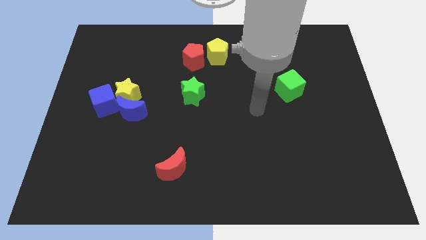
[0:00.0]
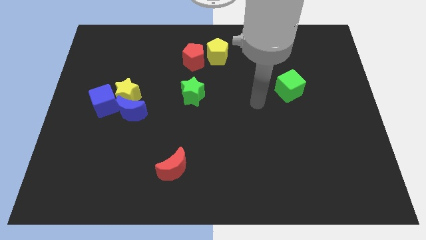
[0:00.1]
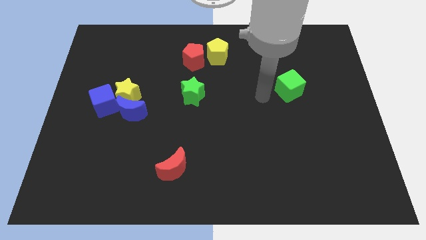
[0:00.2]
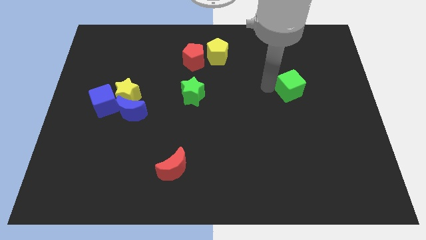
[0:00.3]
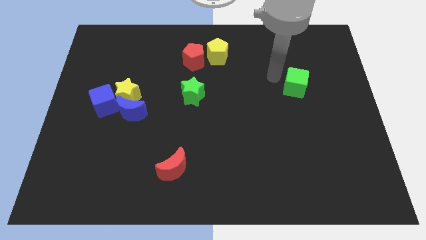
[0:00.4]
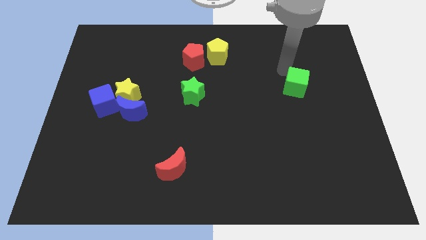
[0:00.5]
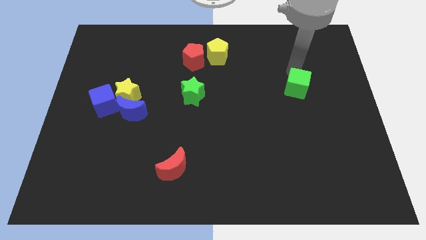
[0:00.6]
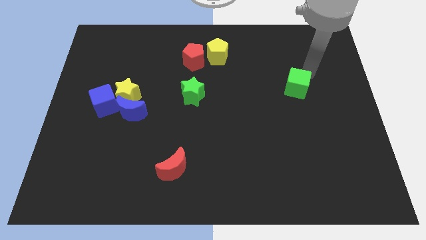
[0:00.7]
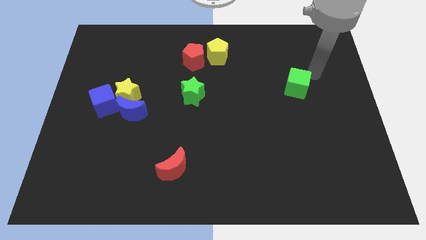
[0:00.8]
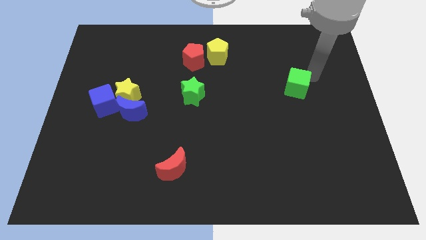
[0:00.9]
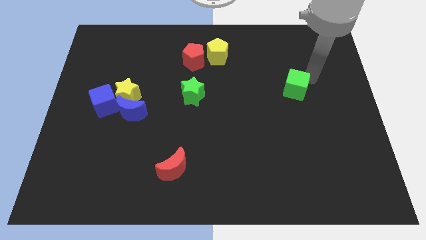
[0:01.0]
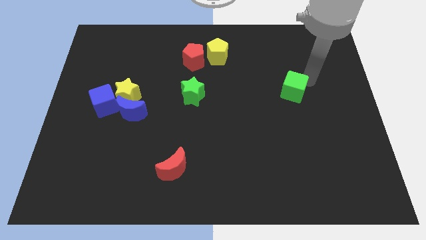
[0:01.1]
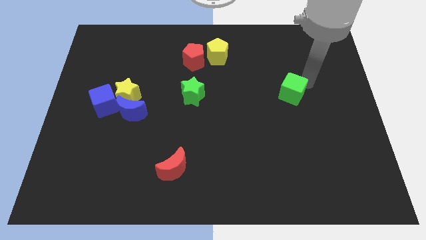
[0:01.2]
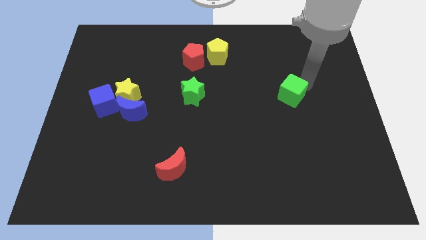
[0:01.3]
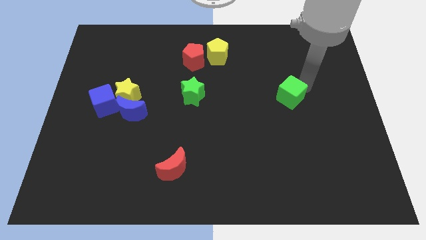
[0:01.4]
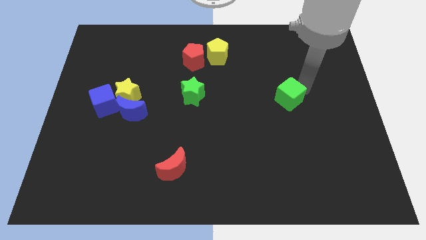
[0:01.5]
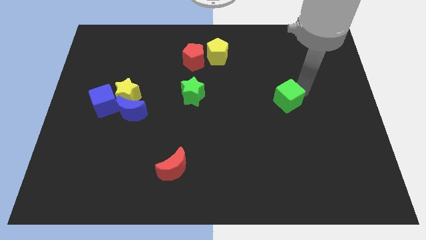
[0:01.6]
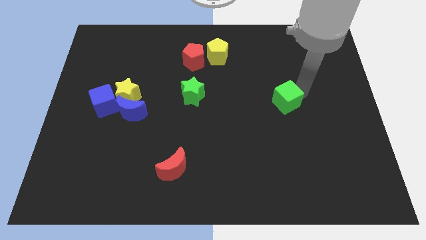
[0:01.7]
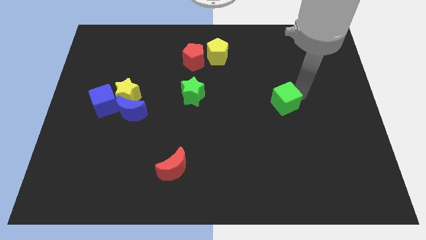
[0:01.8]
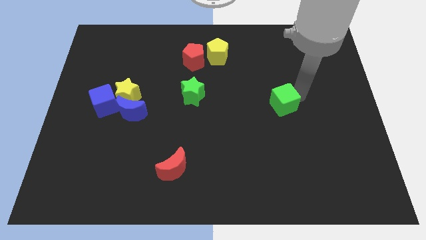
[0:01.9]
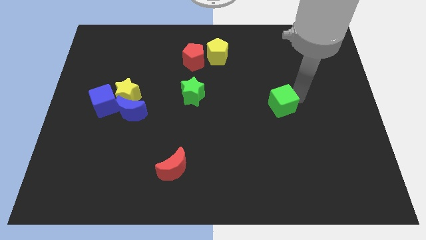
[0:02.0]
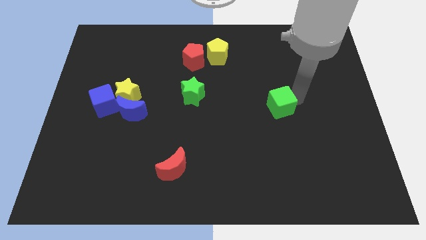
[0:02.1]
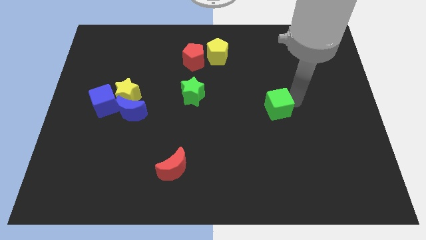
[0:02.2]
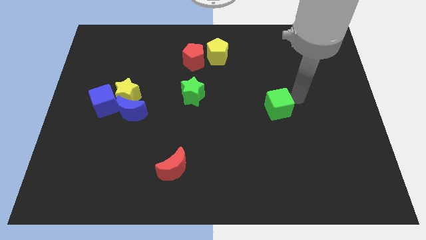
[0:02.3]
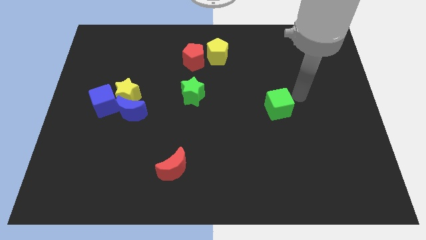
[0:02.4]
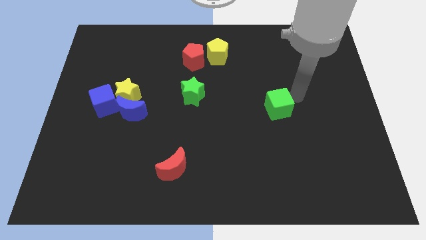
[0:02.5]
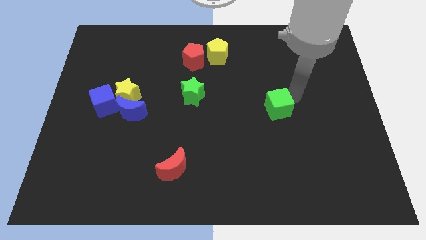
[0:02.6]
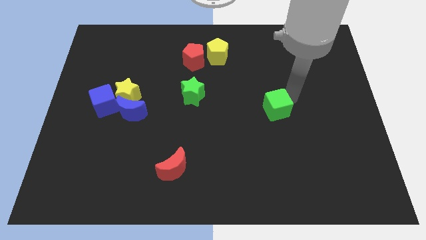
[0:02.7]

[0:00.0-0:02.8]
slightly push the green cube downwards and left diagonally

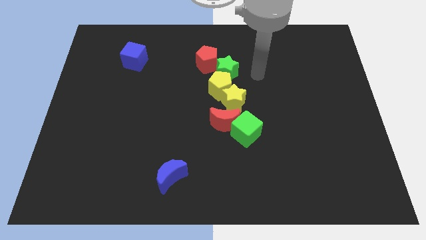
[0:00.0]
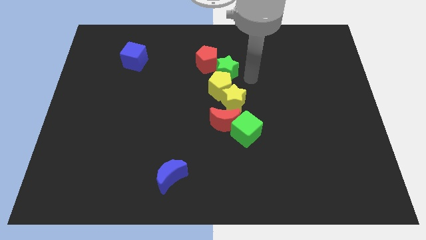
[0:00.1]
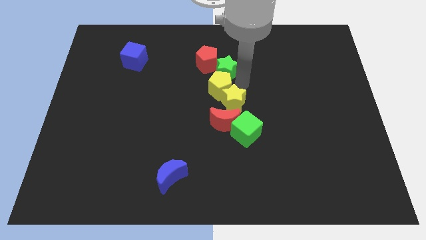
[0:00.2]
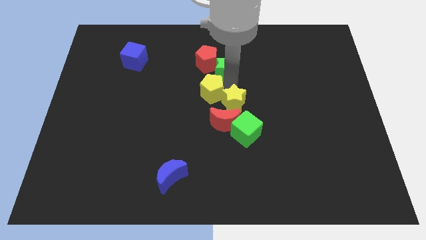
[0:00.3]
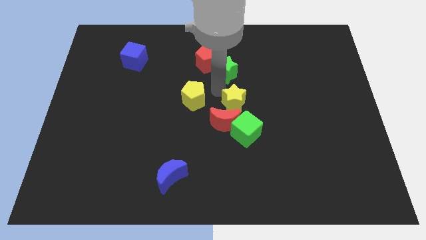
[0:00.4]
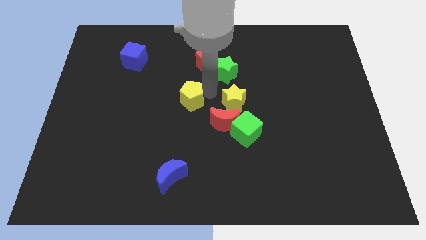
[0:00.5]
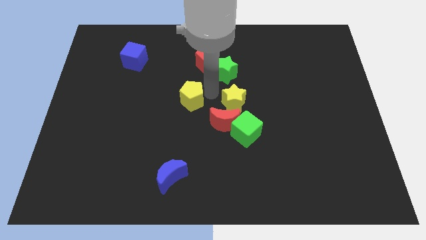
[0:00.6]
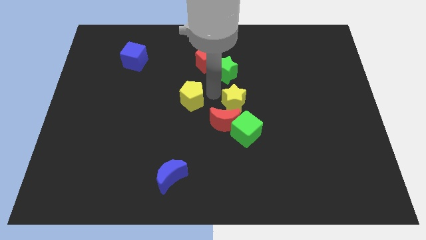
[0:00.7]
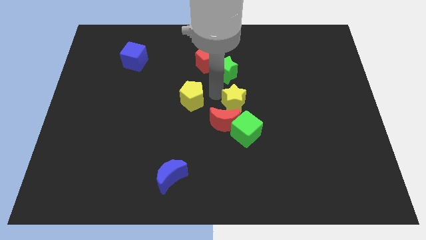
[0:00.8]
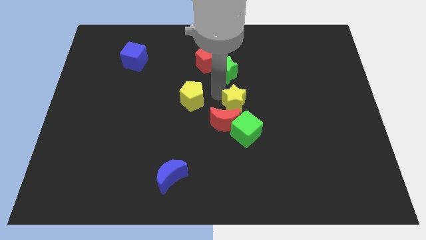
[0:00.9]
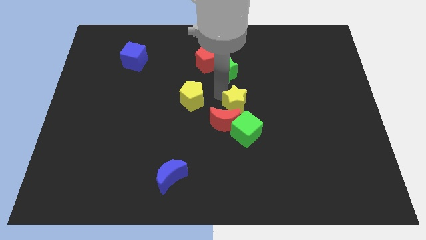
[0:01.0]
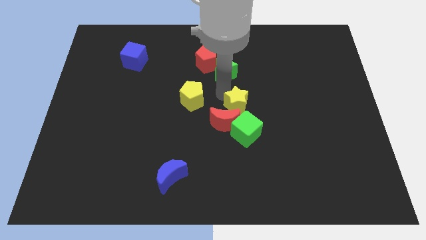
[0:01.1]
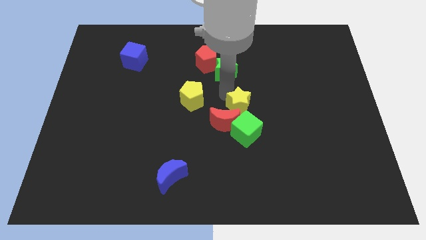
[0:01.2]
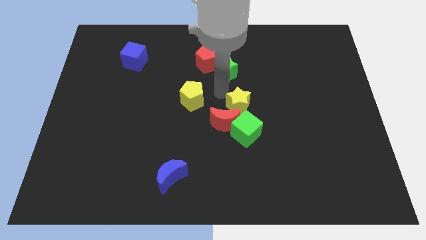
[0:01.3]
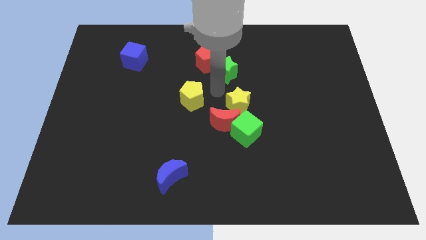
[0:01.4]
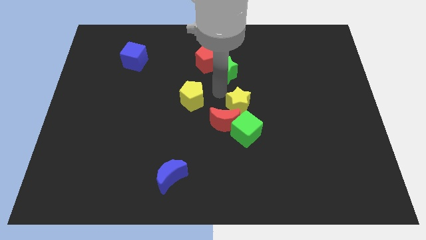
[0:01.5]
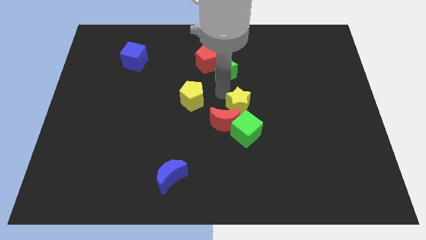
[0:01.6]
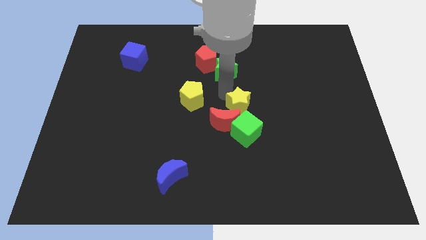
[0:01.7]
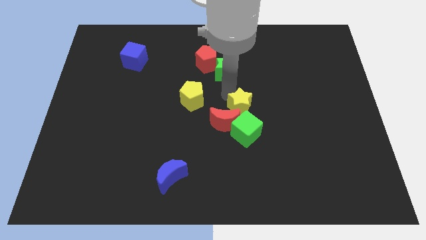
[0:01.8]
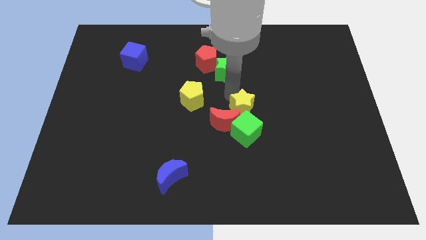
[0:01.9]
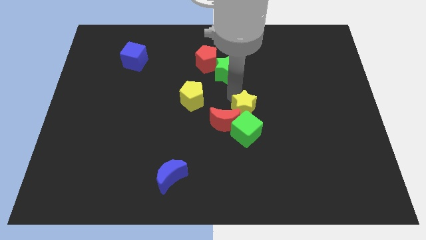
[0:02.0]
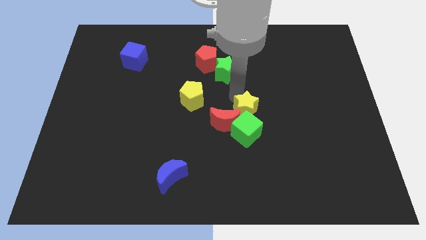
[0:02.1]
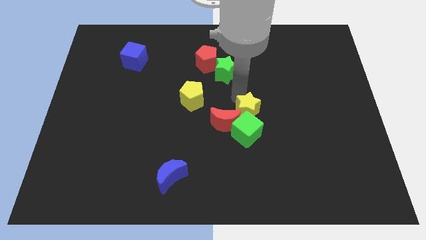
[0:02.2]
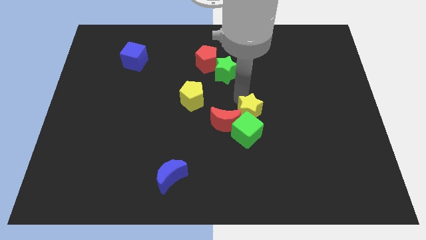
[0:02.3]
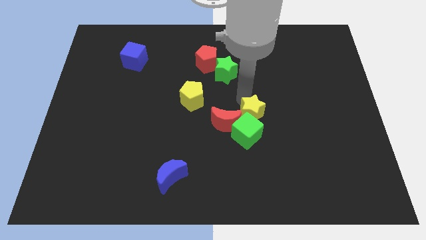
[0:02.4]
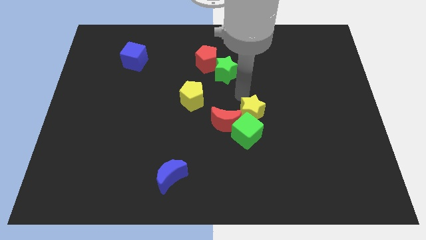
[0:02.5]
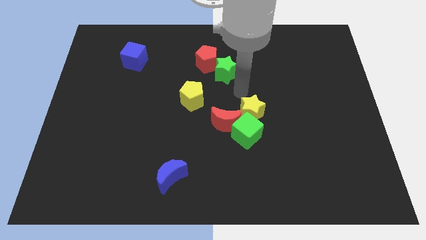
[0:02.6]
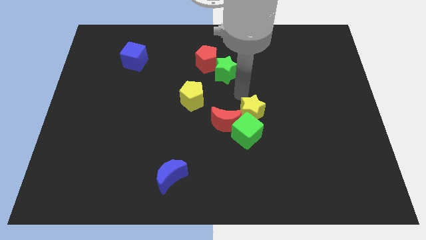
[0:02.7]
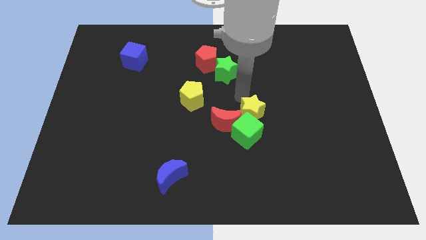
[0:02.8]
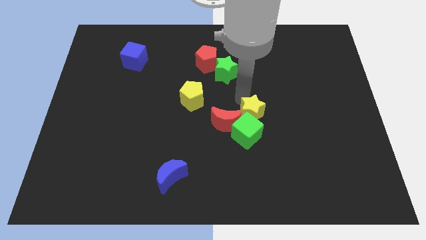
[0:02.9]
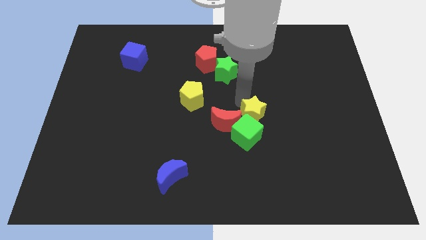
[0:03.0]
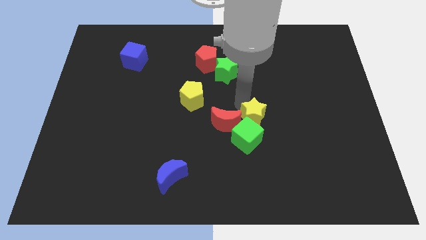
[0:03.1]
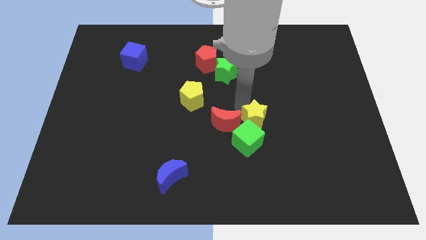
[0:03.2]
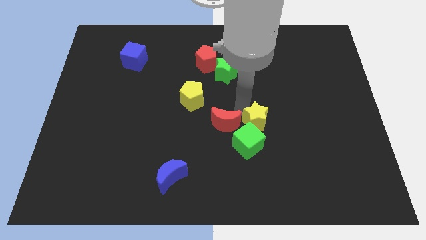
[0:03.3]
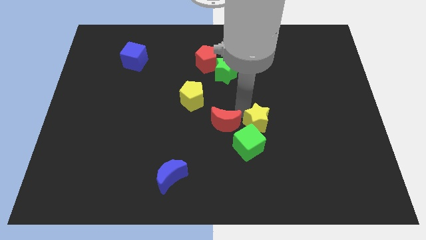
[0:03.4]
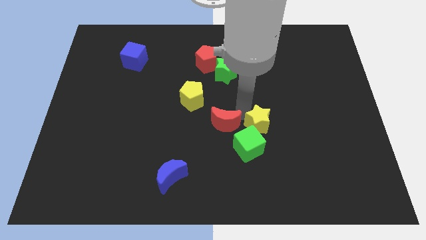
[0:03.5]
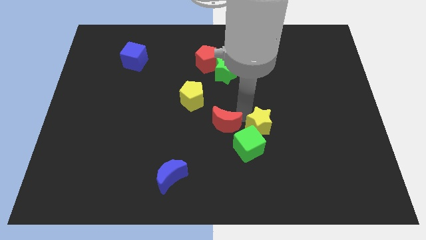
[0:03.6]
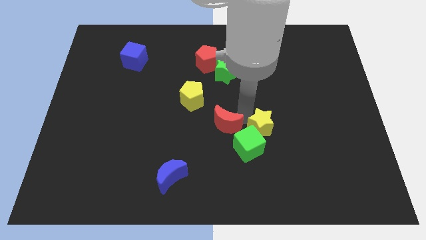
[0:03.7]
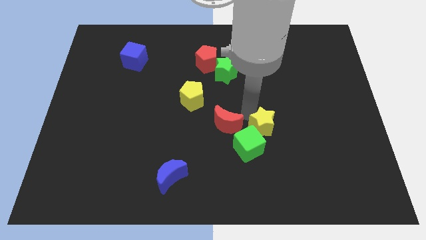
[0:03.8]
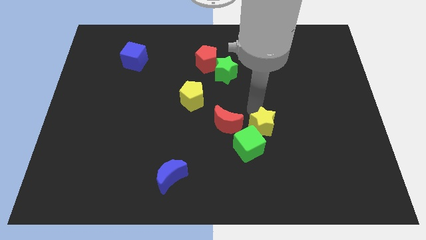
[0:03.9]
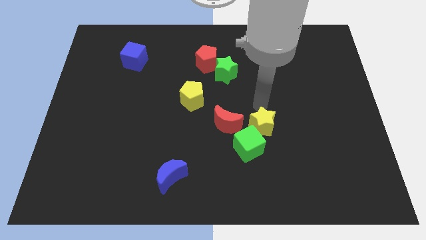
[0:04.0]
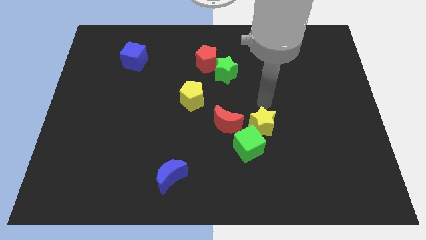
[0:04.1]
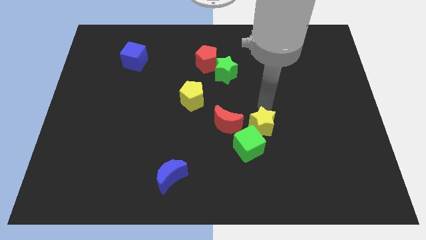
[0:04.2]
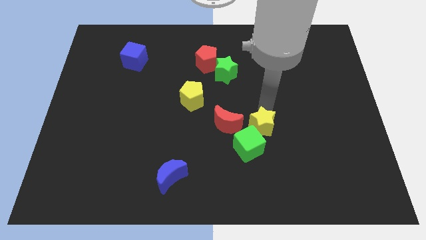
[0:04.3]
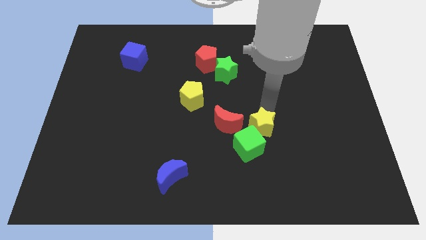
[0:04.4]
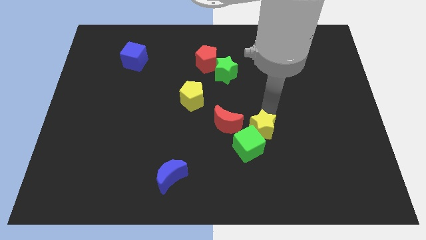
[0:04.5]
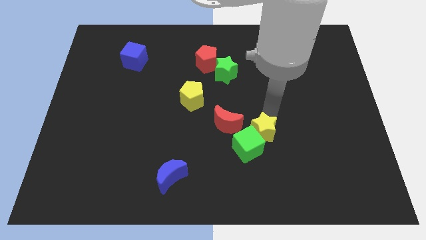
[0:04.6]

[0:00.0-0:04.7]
push the yellow star down slightly

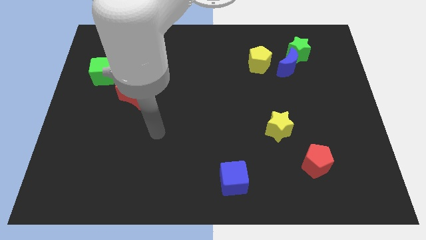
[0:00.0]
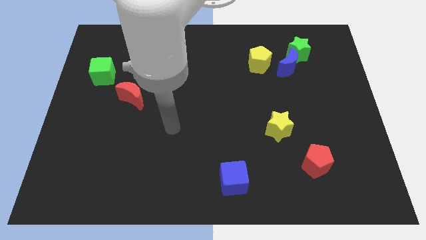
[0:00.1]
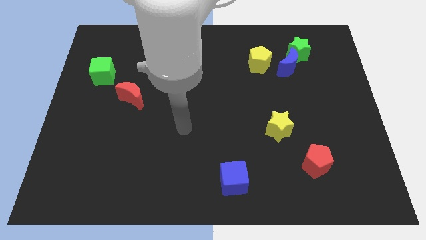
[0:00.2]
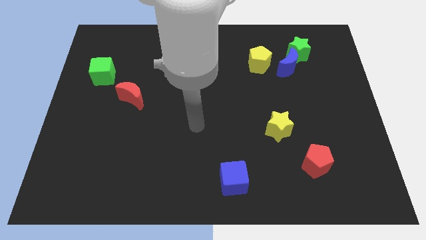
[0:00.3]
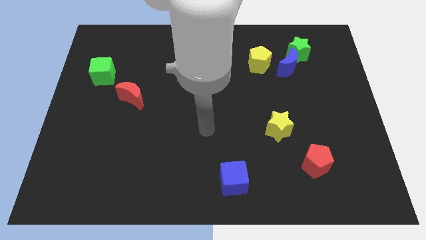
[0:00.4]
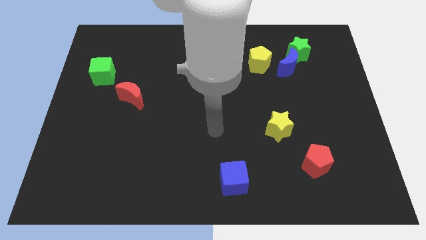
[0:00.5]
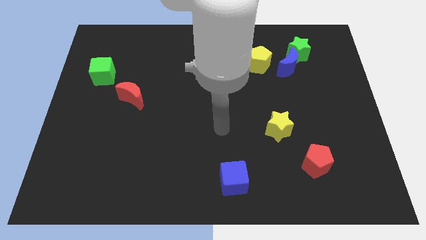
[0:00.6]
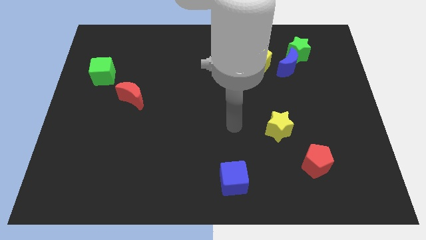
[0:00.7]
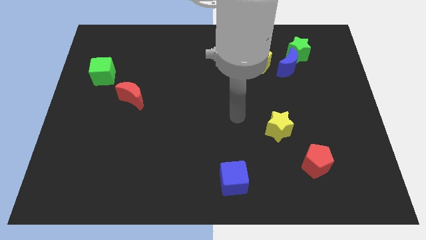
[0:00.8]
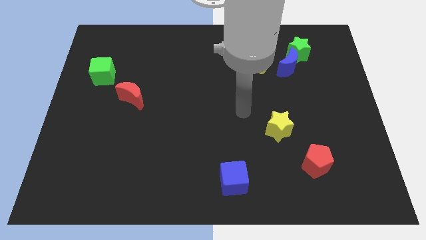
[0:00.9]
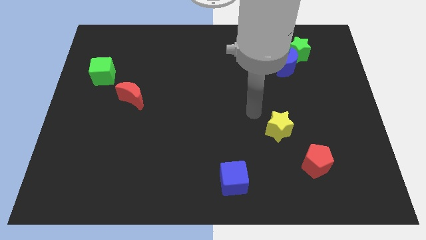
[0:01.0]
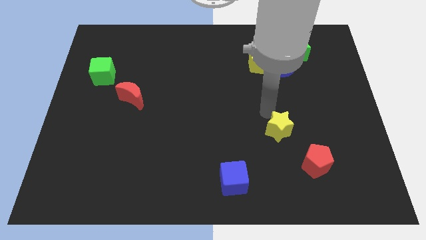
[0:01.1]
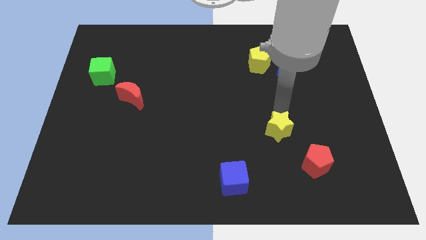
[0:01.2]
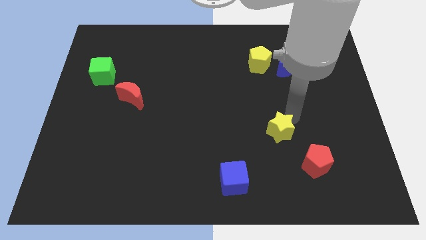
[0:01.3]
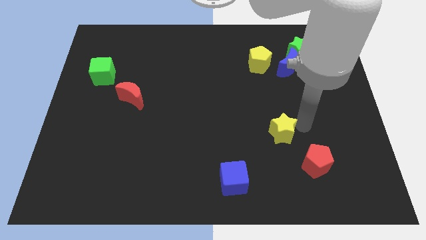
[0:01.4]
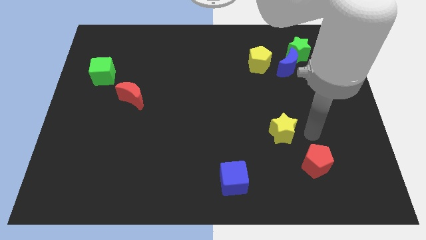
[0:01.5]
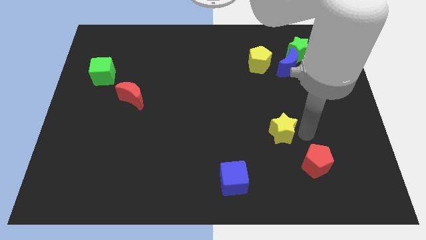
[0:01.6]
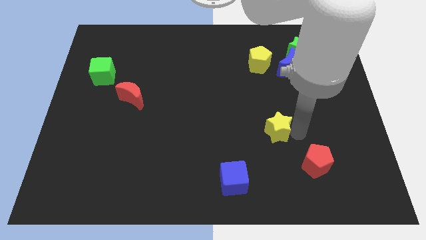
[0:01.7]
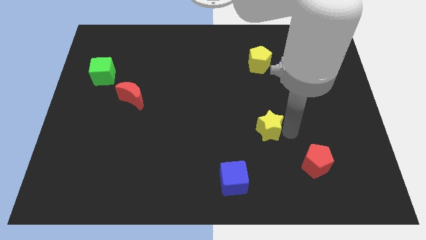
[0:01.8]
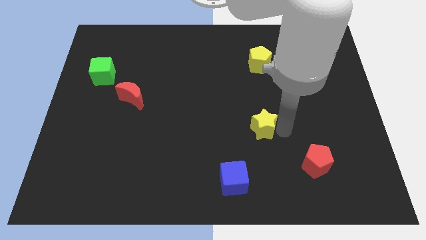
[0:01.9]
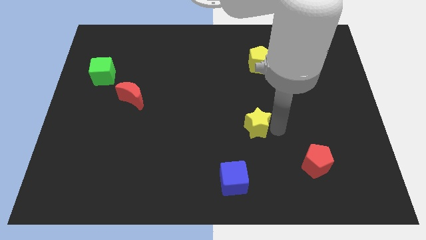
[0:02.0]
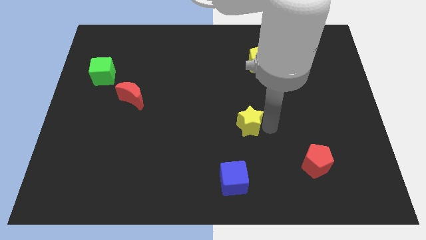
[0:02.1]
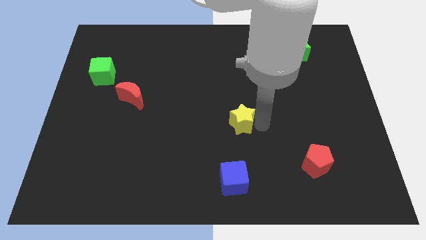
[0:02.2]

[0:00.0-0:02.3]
slightly slide the yellow star left
